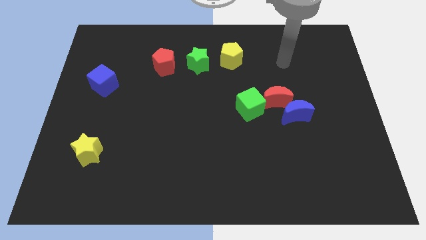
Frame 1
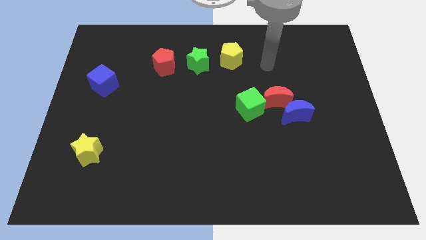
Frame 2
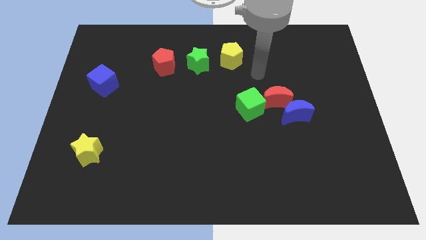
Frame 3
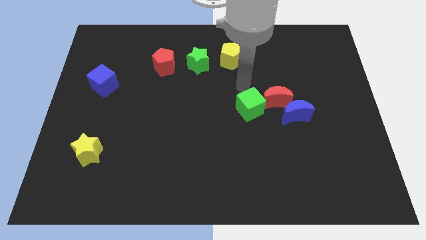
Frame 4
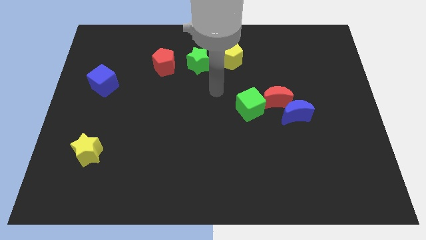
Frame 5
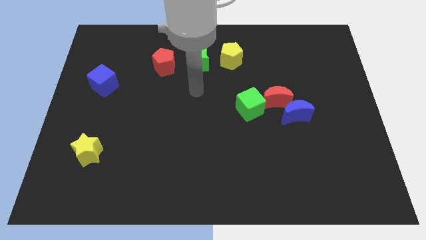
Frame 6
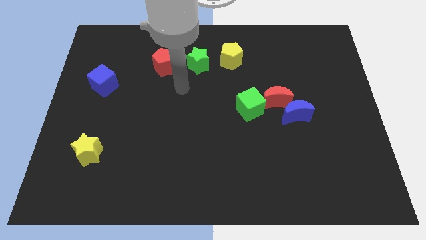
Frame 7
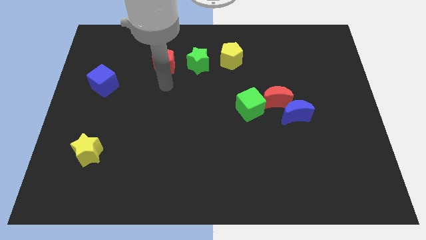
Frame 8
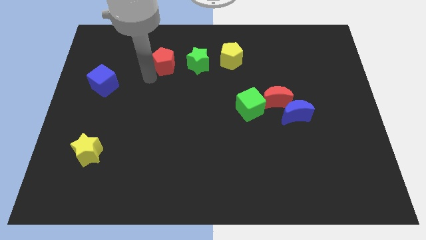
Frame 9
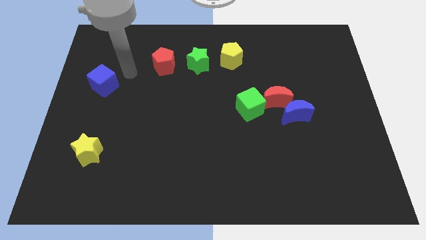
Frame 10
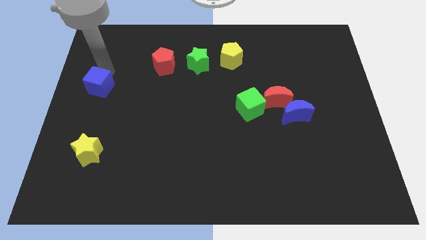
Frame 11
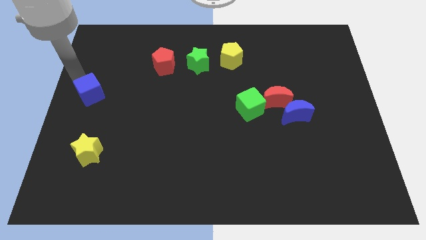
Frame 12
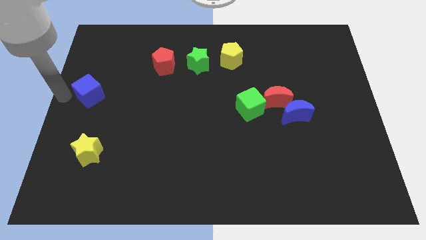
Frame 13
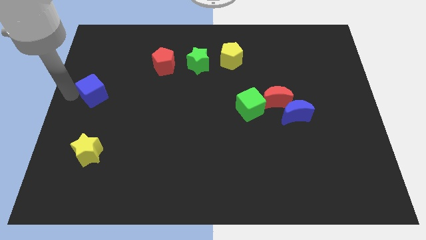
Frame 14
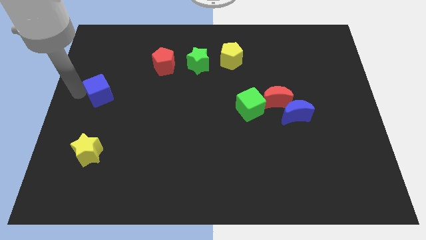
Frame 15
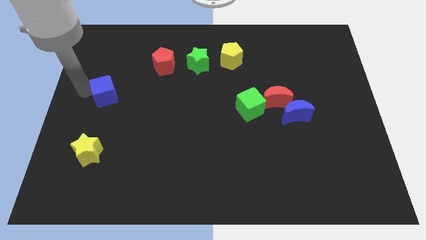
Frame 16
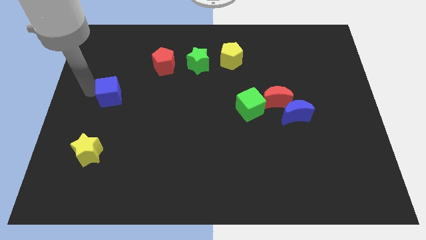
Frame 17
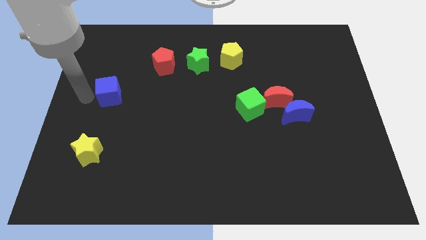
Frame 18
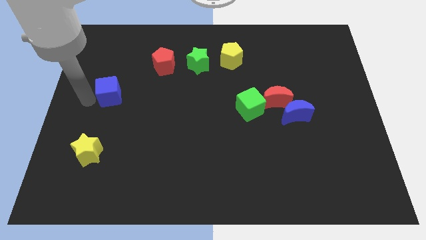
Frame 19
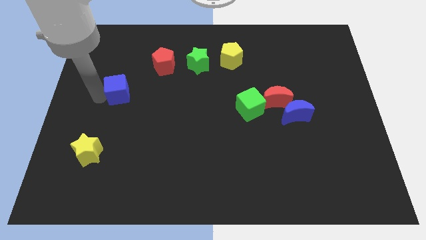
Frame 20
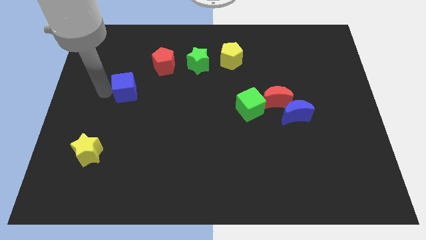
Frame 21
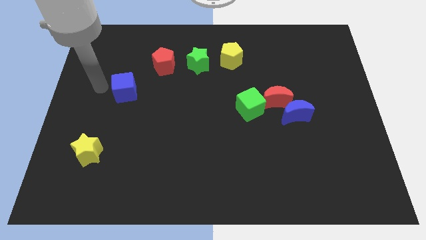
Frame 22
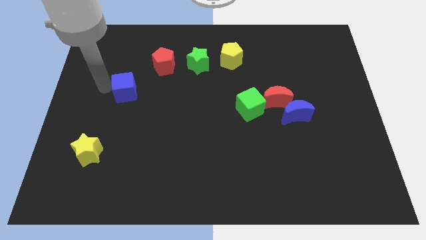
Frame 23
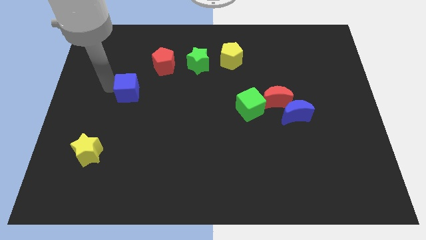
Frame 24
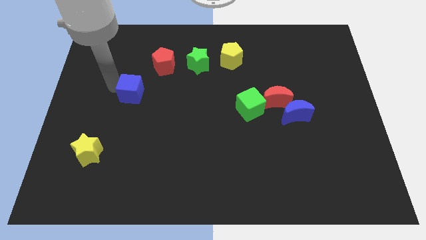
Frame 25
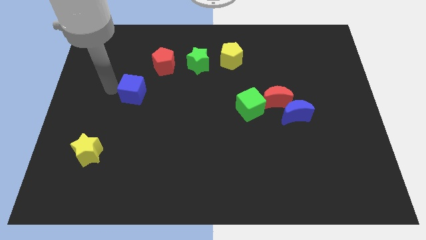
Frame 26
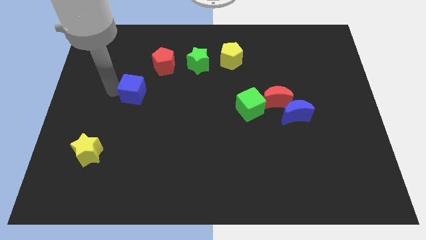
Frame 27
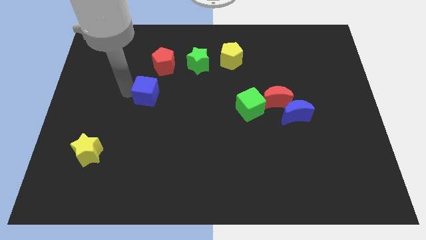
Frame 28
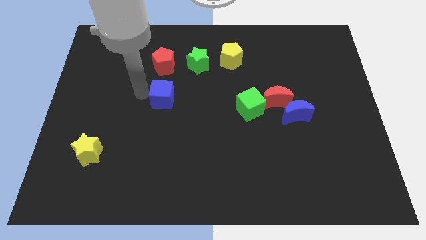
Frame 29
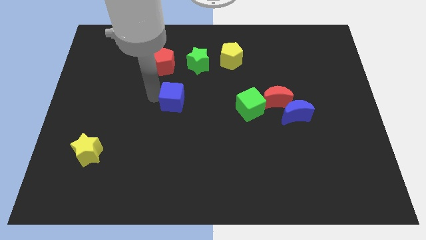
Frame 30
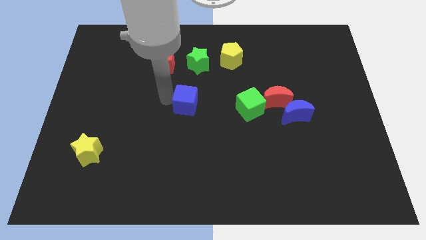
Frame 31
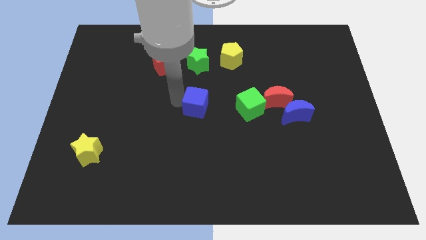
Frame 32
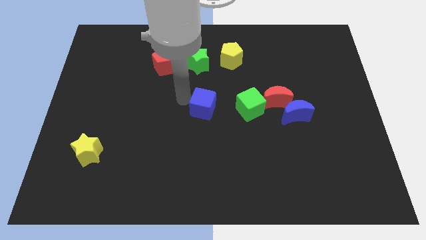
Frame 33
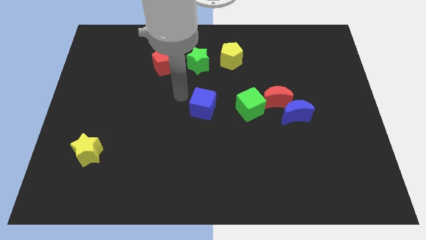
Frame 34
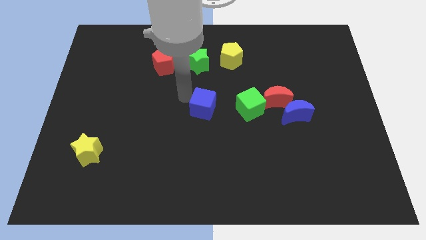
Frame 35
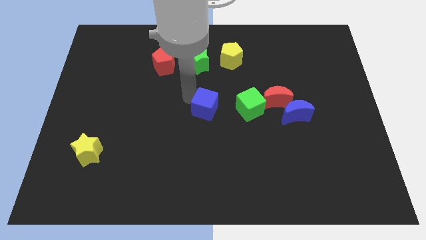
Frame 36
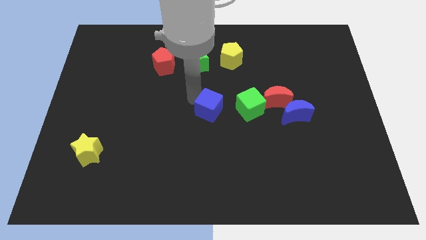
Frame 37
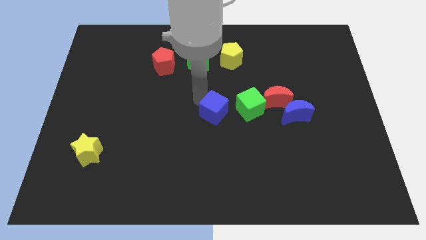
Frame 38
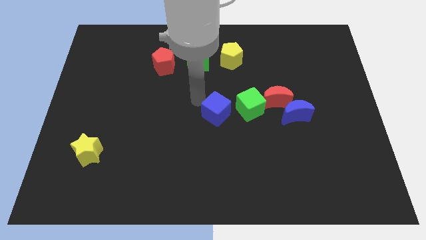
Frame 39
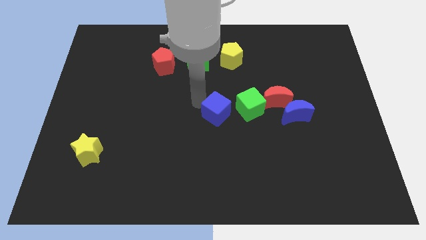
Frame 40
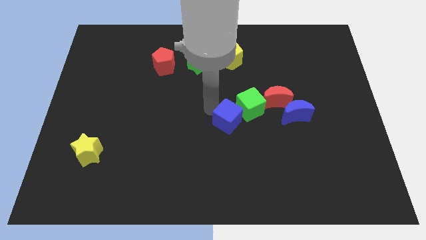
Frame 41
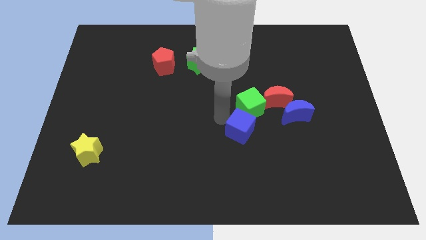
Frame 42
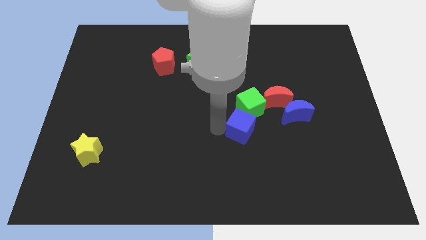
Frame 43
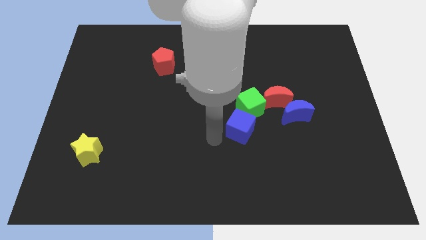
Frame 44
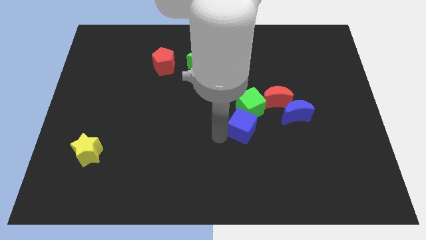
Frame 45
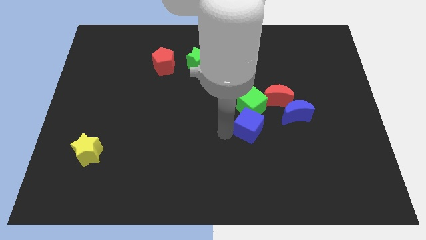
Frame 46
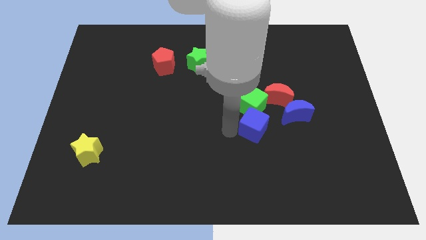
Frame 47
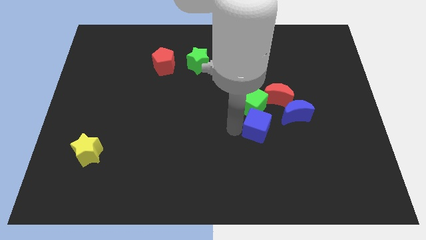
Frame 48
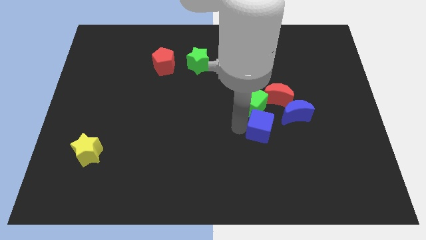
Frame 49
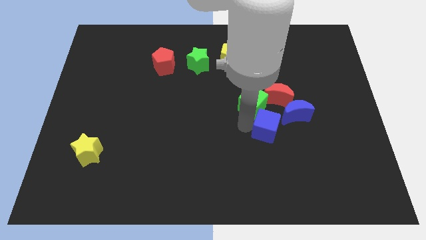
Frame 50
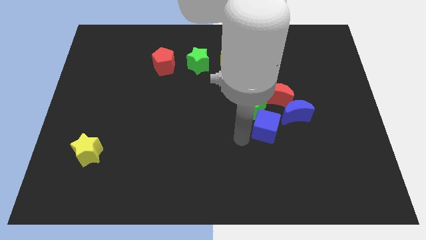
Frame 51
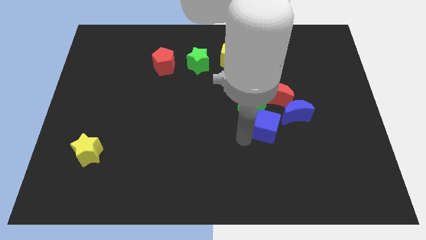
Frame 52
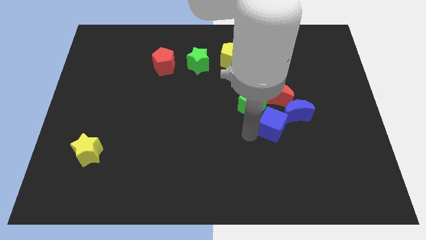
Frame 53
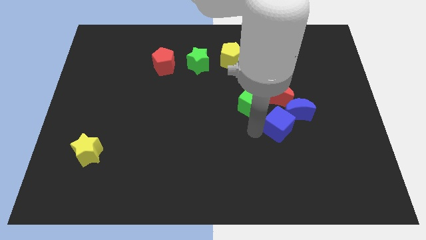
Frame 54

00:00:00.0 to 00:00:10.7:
push the blue cube next to the blue moon

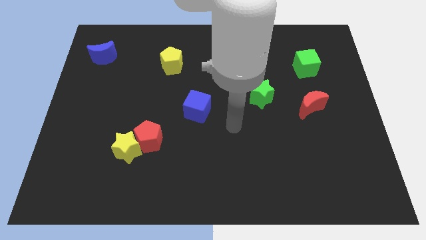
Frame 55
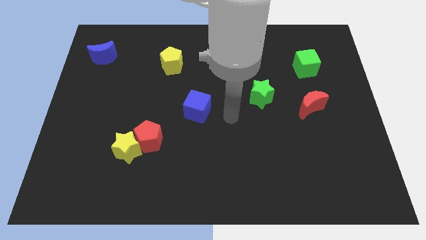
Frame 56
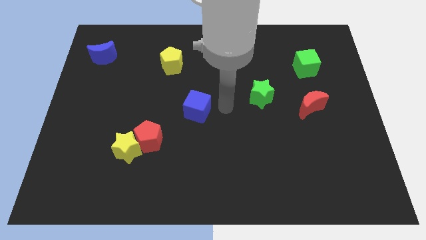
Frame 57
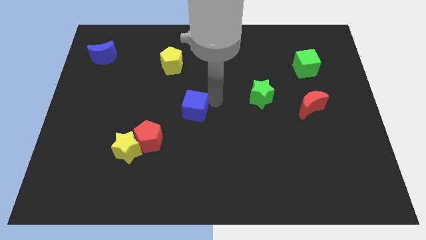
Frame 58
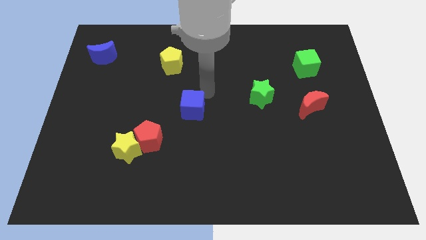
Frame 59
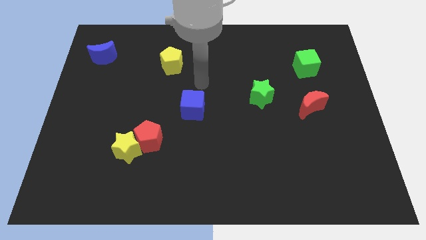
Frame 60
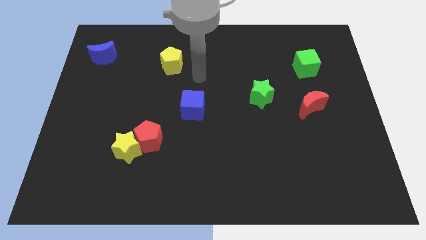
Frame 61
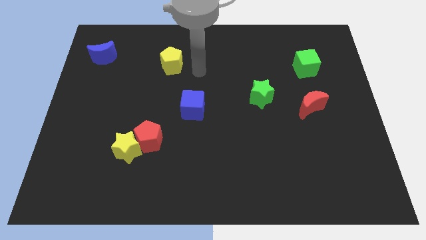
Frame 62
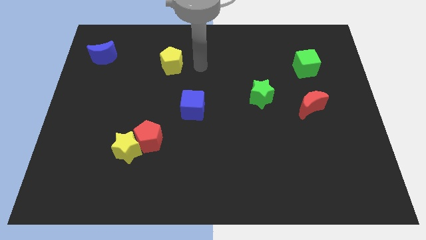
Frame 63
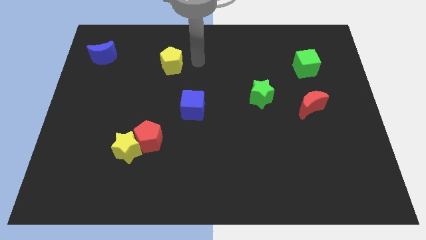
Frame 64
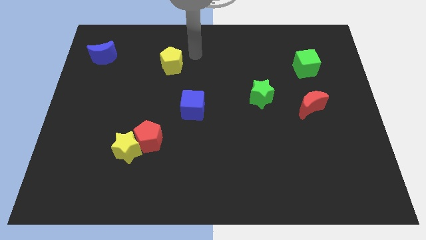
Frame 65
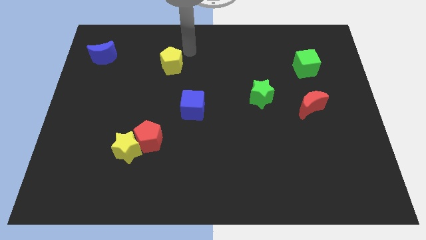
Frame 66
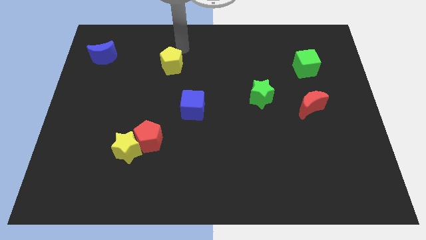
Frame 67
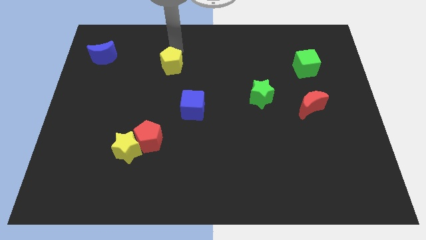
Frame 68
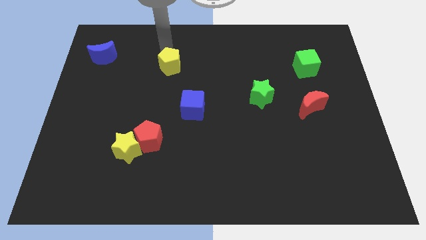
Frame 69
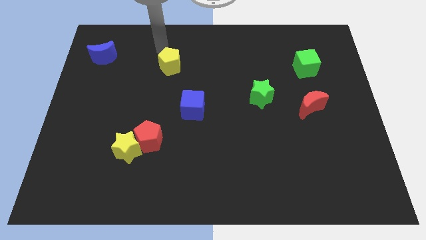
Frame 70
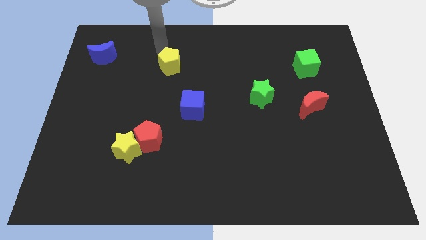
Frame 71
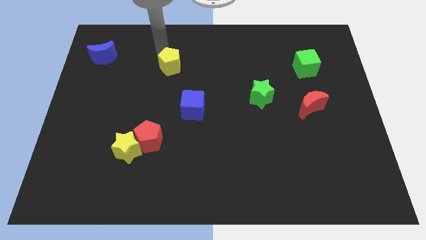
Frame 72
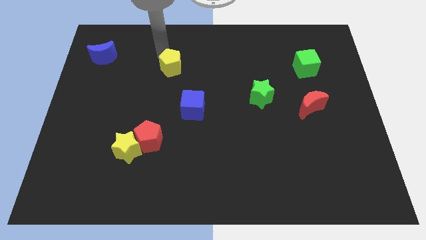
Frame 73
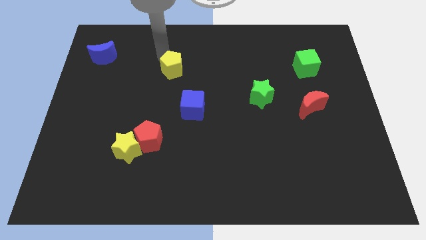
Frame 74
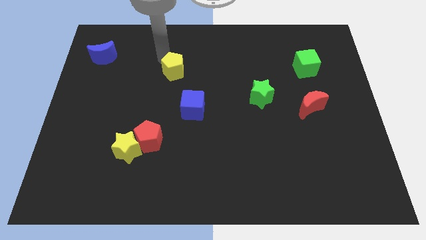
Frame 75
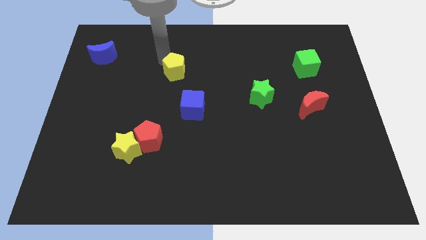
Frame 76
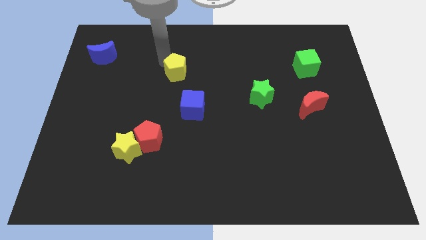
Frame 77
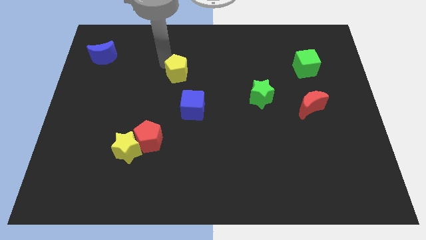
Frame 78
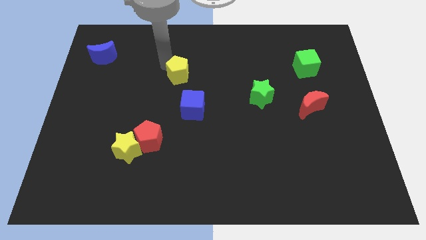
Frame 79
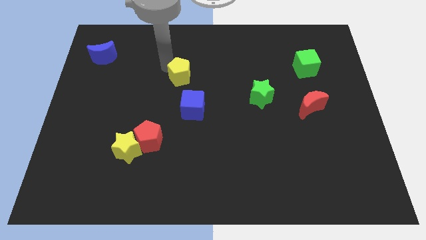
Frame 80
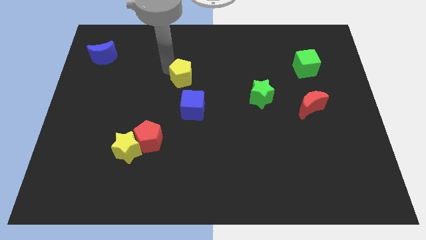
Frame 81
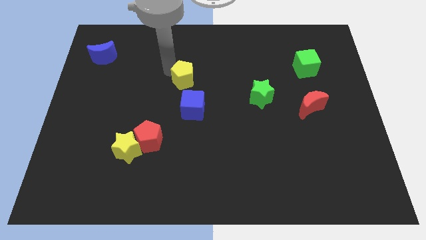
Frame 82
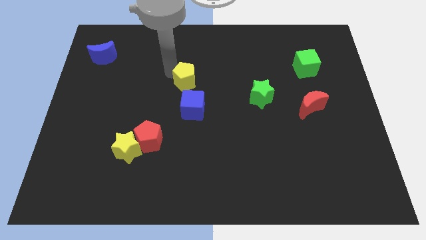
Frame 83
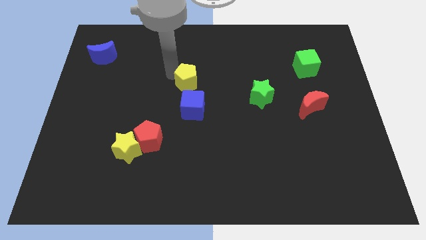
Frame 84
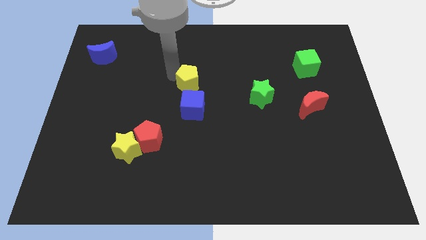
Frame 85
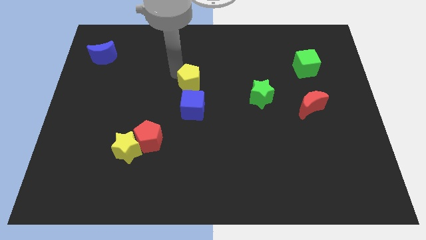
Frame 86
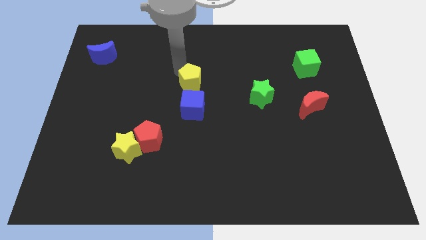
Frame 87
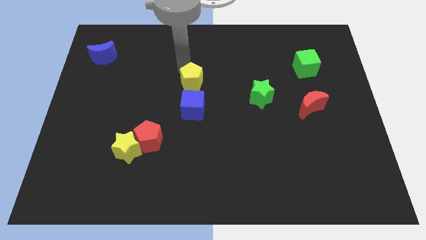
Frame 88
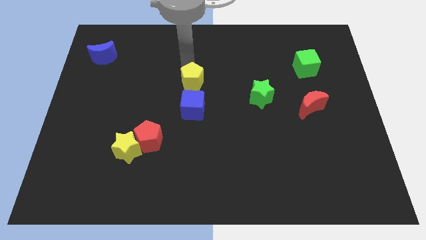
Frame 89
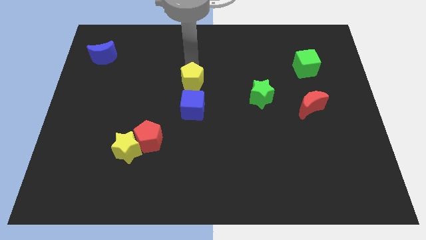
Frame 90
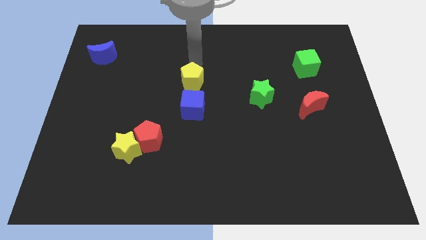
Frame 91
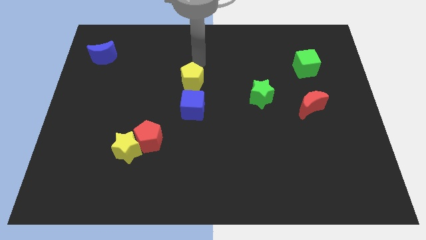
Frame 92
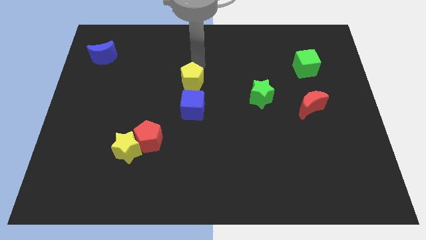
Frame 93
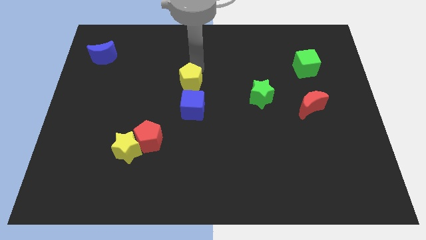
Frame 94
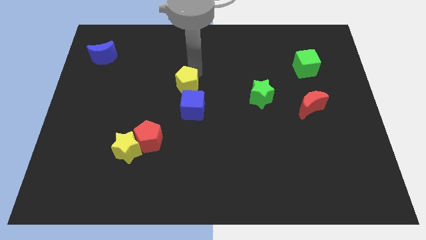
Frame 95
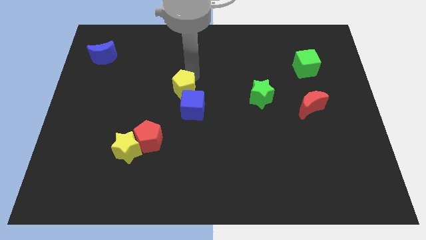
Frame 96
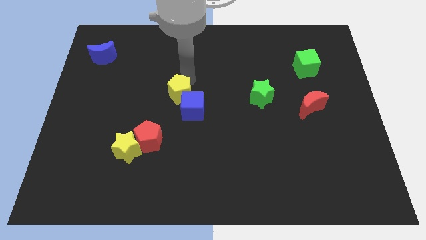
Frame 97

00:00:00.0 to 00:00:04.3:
slide the yellow pentagon to the blue cube
